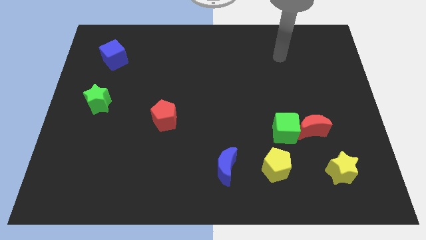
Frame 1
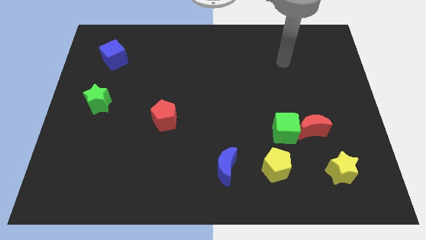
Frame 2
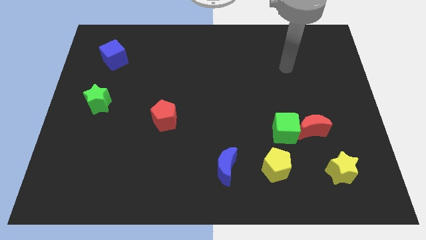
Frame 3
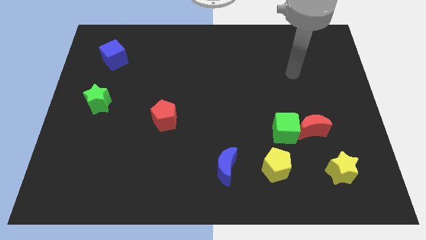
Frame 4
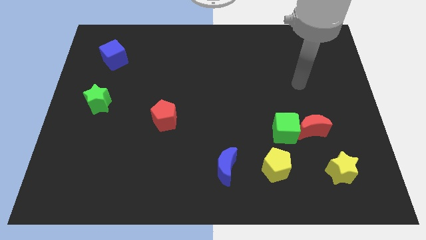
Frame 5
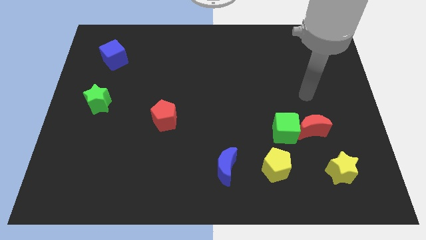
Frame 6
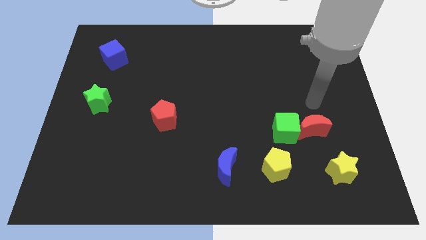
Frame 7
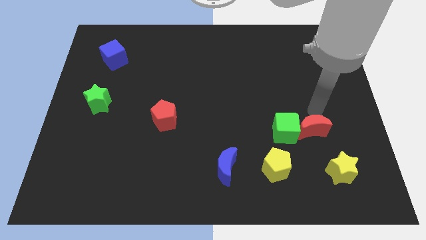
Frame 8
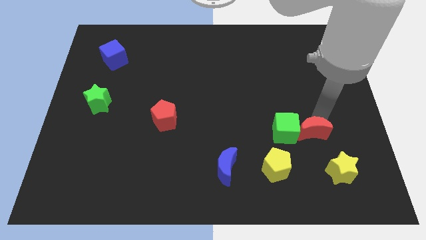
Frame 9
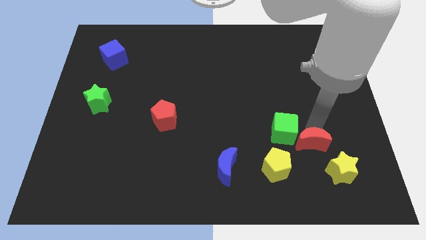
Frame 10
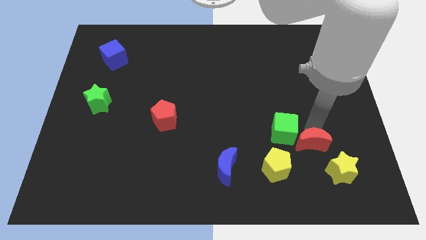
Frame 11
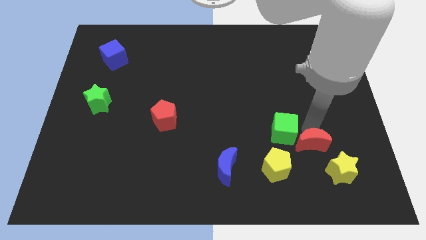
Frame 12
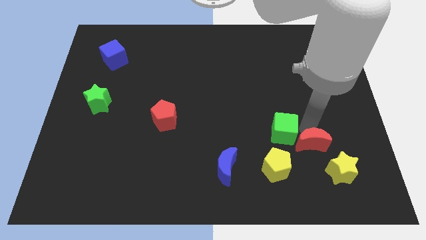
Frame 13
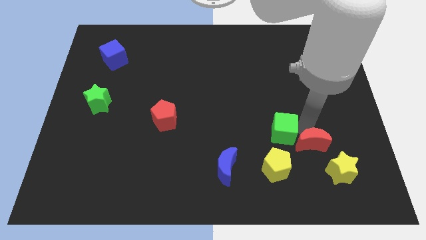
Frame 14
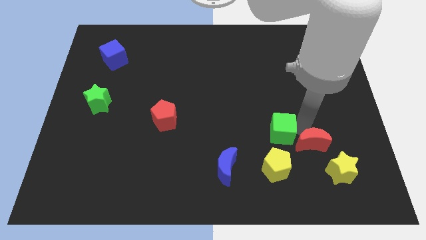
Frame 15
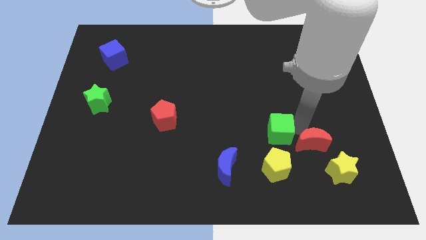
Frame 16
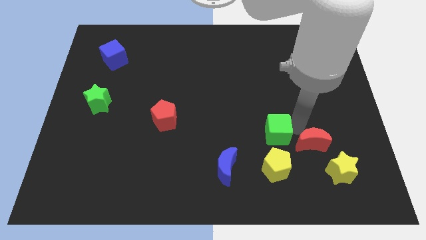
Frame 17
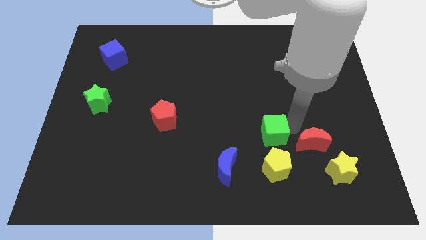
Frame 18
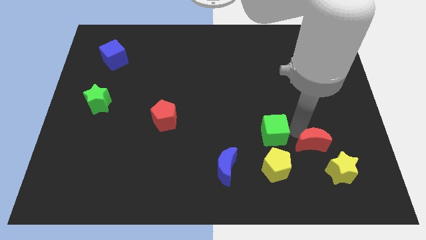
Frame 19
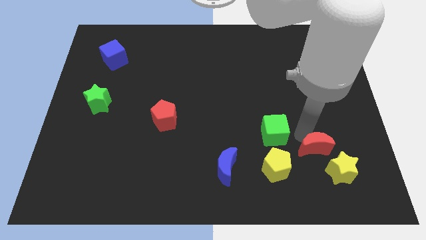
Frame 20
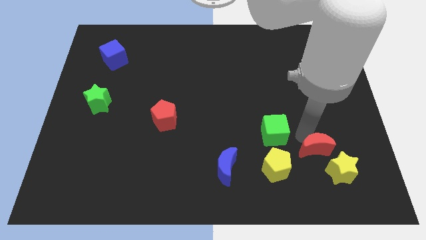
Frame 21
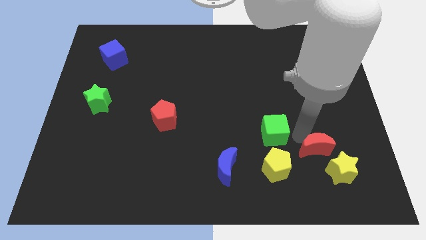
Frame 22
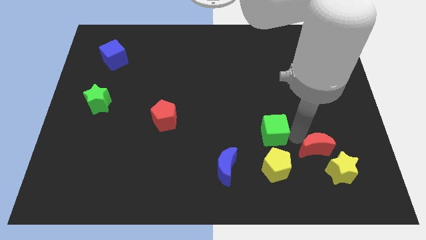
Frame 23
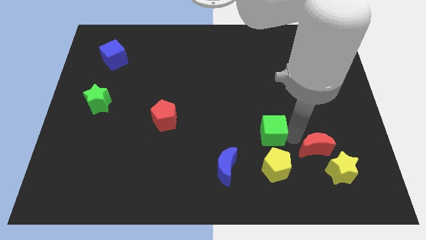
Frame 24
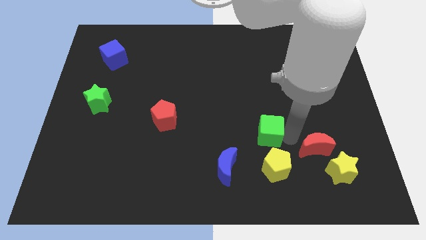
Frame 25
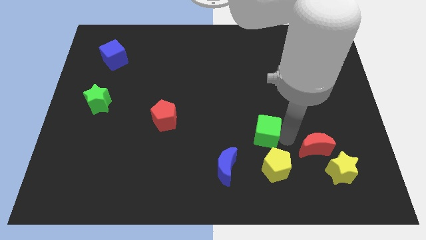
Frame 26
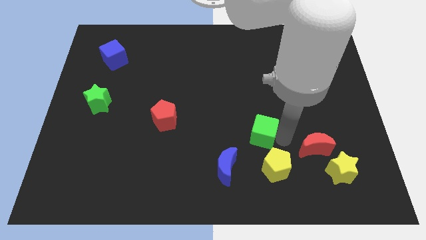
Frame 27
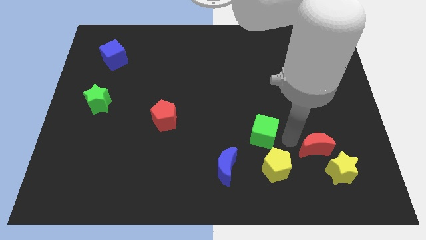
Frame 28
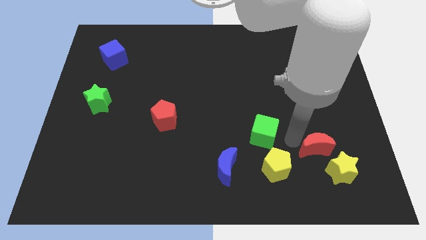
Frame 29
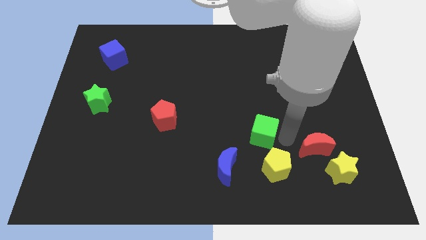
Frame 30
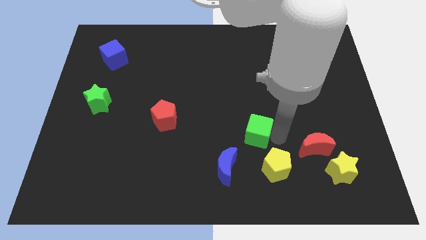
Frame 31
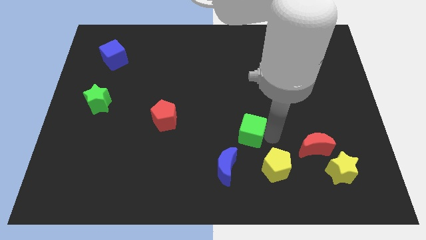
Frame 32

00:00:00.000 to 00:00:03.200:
slide the green cube somewhat left

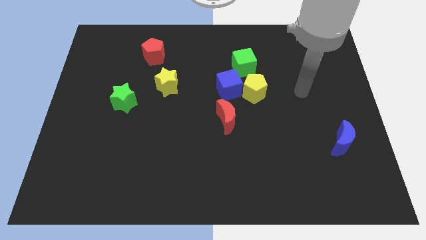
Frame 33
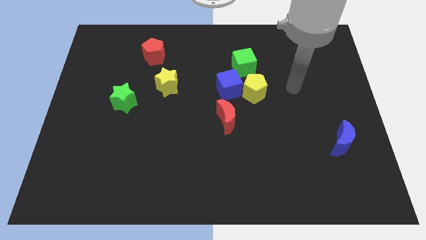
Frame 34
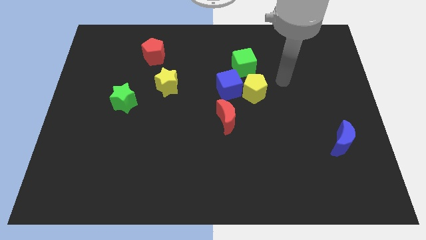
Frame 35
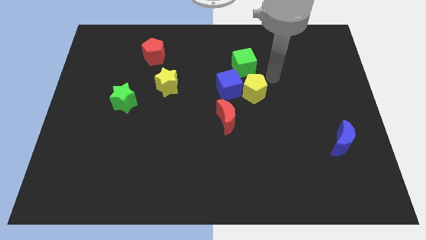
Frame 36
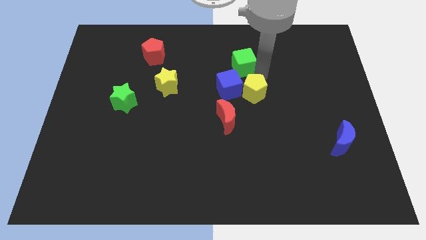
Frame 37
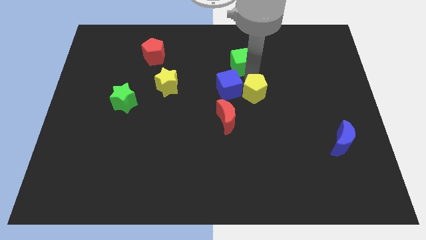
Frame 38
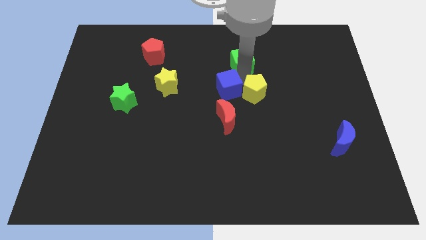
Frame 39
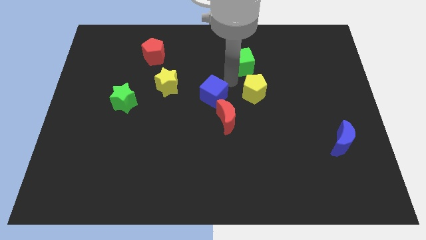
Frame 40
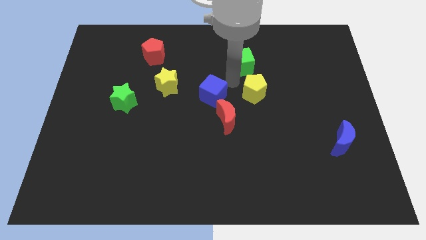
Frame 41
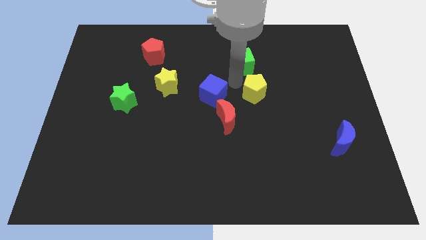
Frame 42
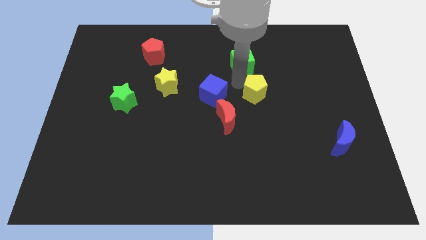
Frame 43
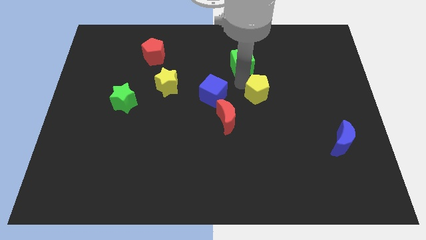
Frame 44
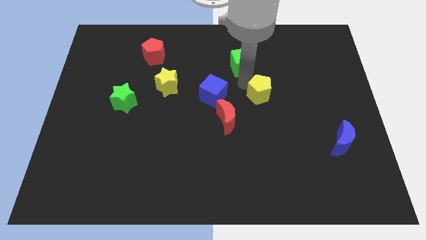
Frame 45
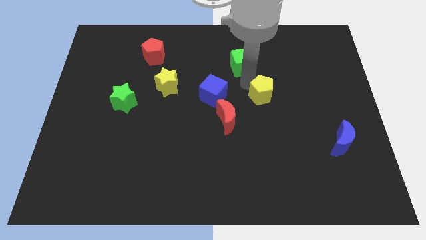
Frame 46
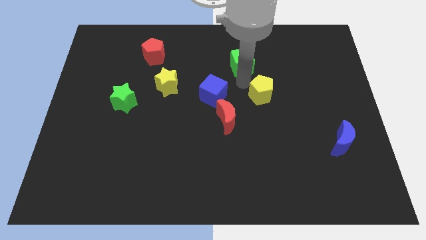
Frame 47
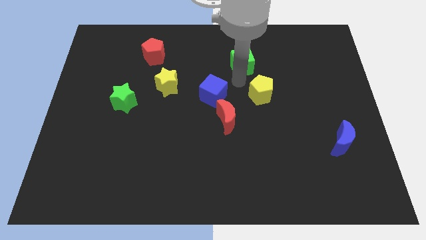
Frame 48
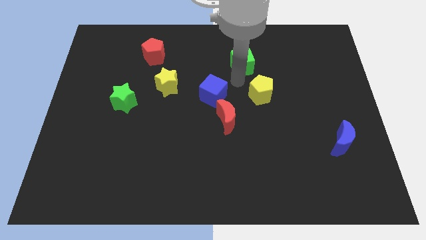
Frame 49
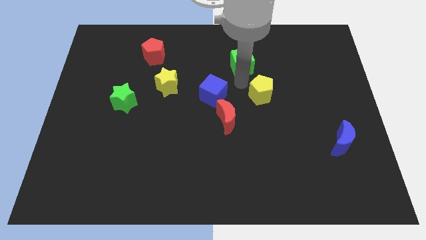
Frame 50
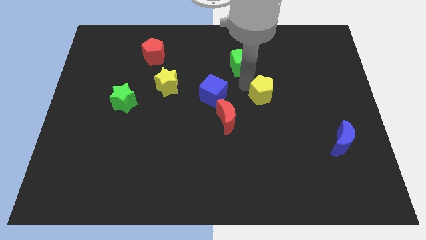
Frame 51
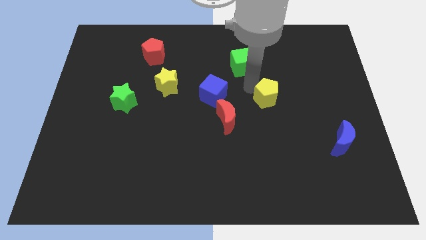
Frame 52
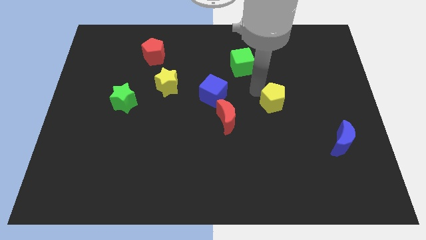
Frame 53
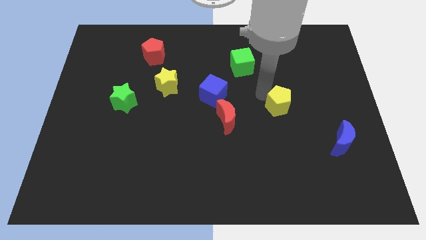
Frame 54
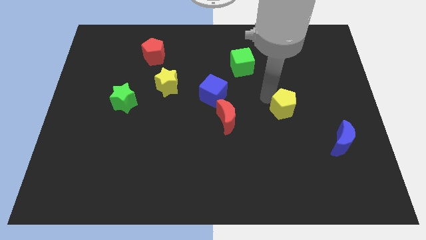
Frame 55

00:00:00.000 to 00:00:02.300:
push the yellow pentagon somewhat downwards and to the right

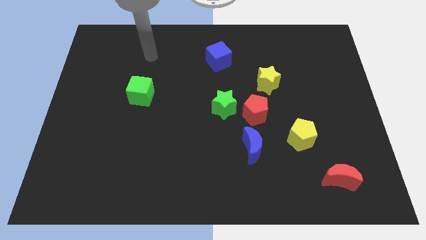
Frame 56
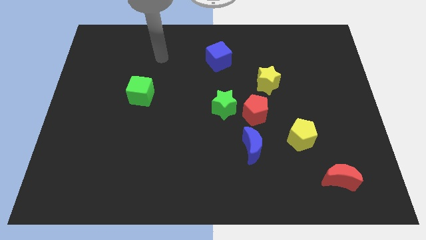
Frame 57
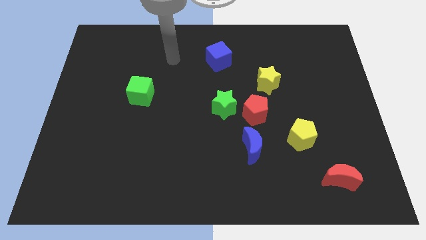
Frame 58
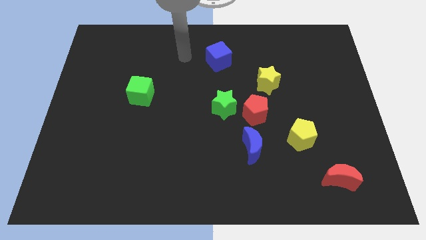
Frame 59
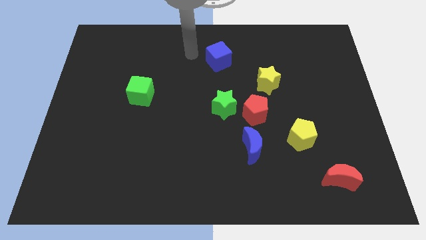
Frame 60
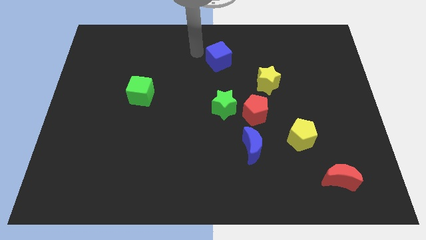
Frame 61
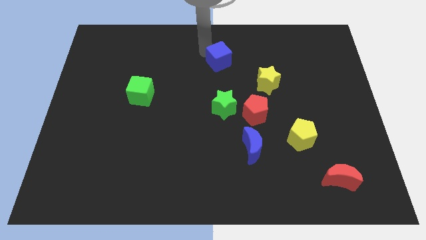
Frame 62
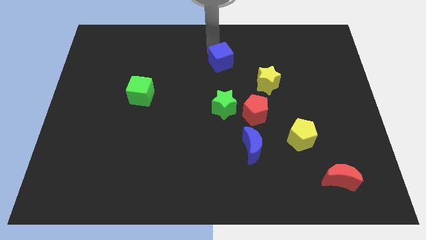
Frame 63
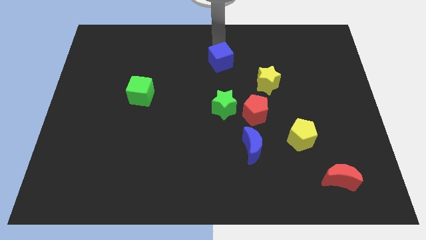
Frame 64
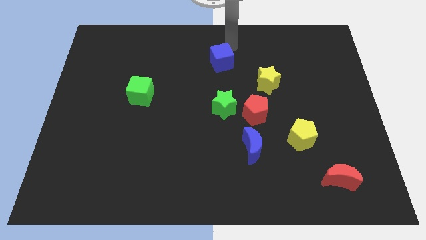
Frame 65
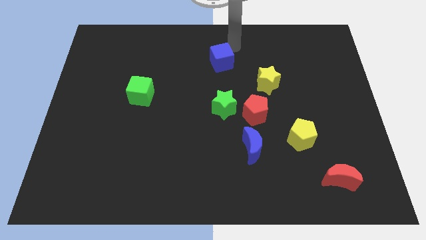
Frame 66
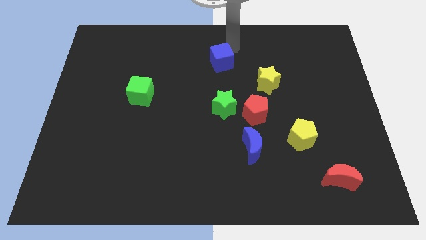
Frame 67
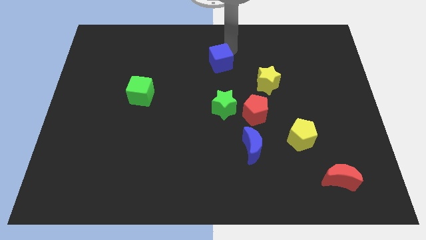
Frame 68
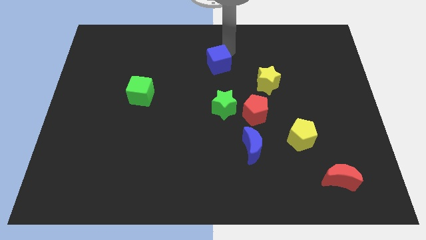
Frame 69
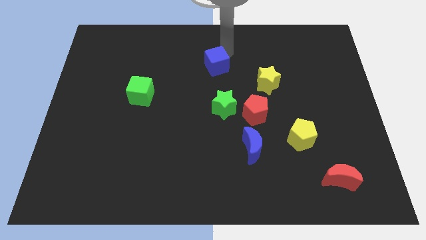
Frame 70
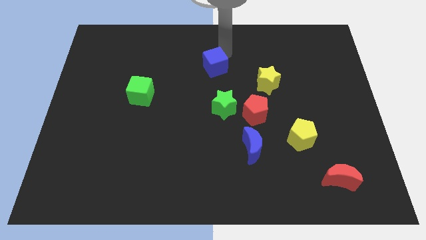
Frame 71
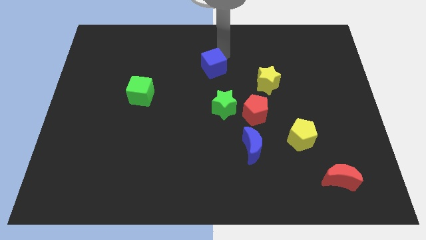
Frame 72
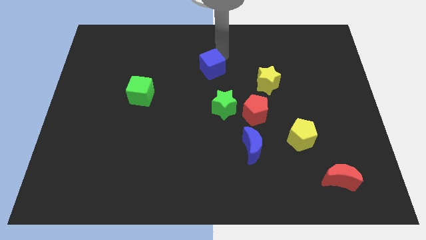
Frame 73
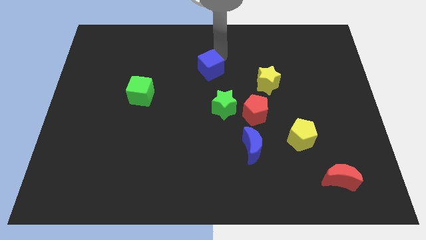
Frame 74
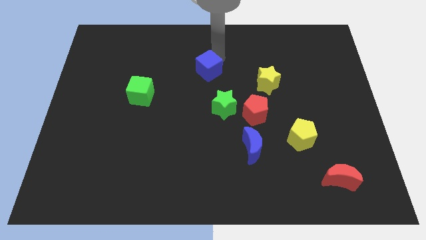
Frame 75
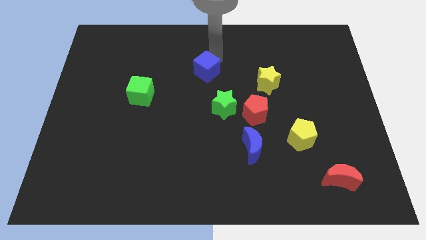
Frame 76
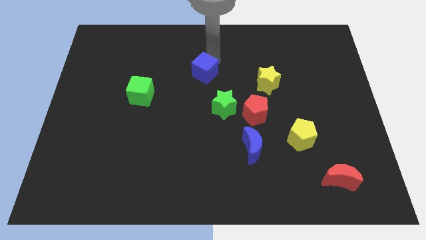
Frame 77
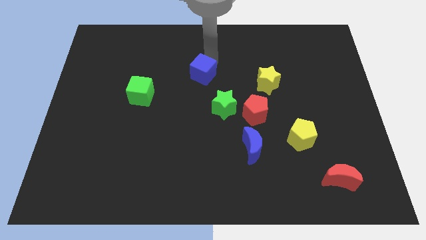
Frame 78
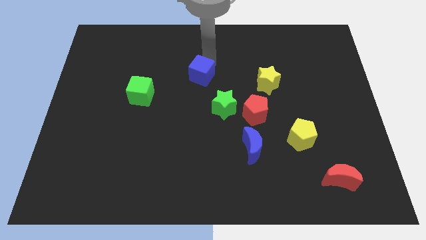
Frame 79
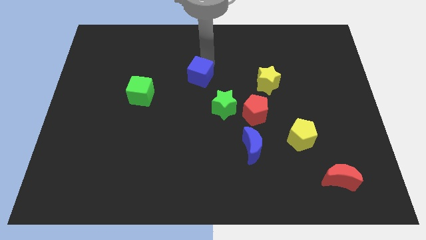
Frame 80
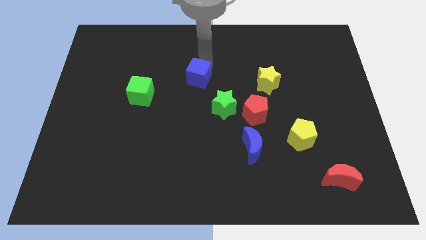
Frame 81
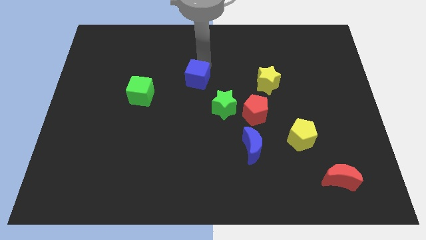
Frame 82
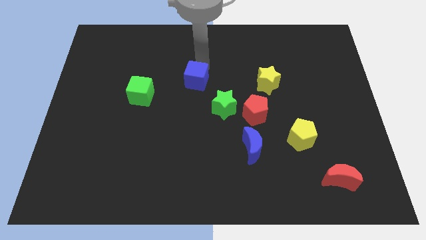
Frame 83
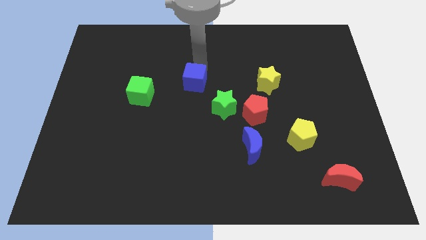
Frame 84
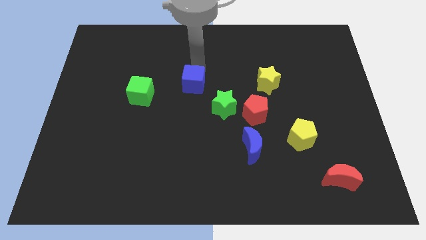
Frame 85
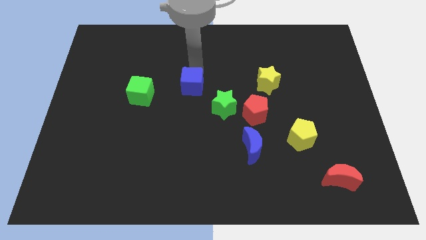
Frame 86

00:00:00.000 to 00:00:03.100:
move the blue cube downwards slightly
